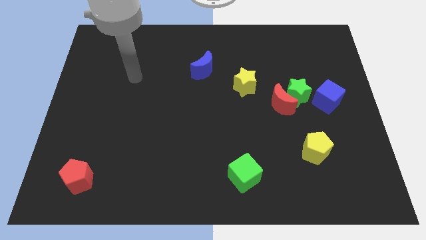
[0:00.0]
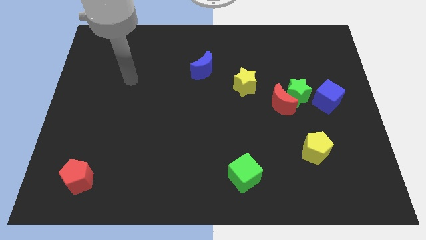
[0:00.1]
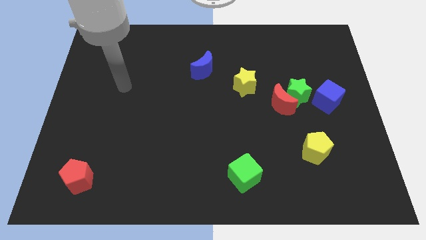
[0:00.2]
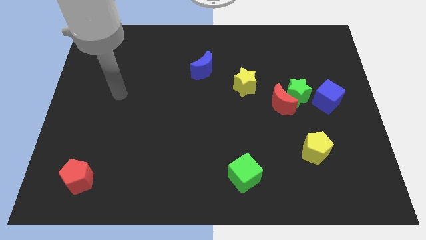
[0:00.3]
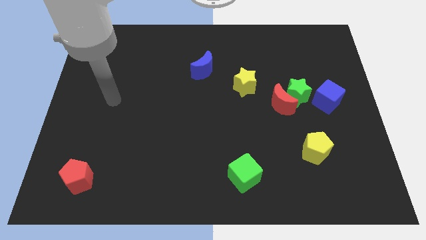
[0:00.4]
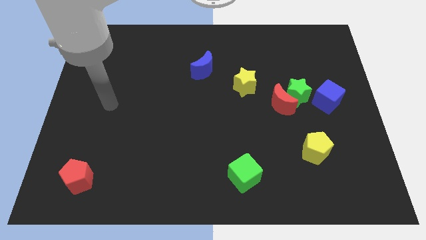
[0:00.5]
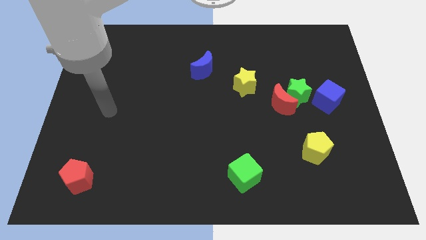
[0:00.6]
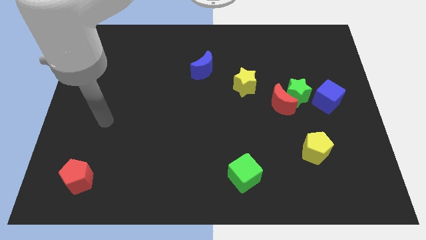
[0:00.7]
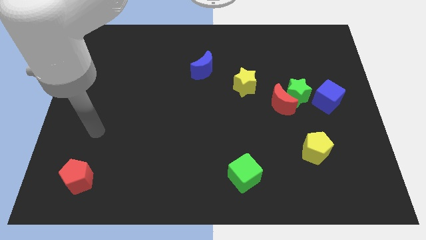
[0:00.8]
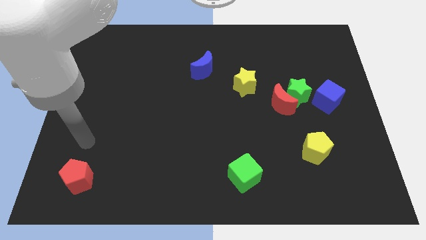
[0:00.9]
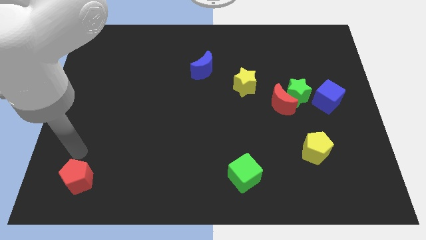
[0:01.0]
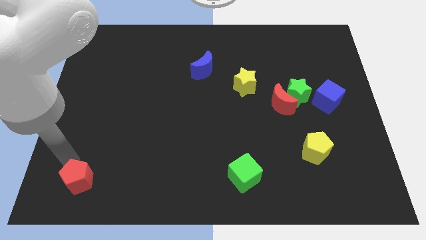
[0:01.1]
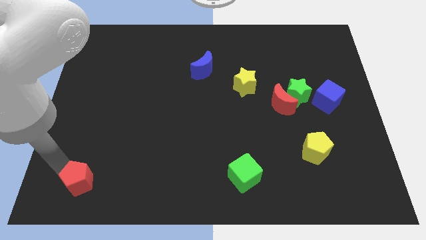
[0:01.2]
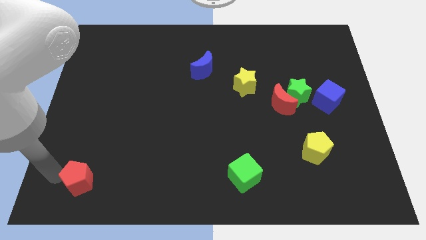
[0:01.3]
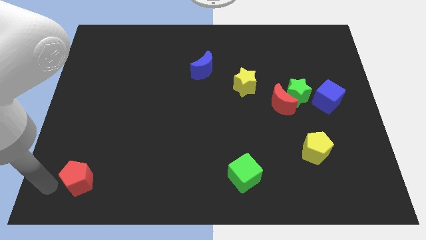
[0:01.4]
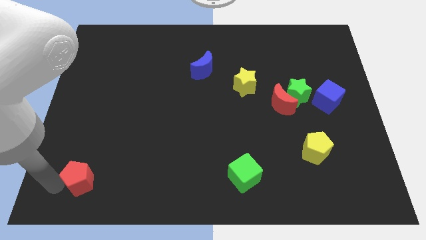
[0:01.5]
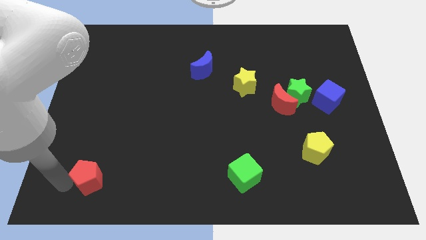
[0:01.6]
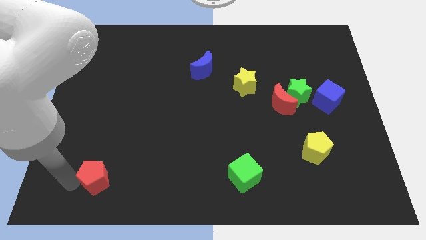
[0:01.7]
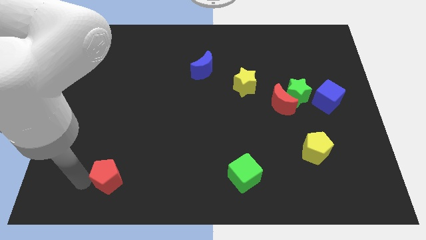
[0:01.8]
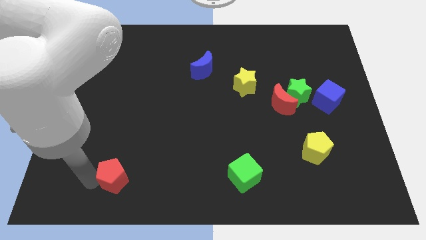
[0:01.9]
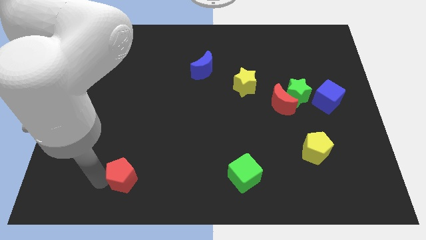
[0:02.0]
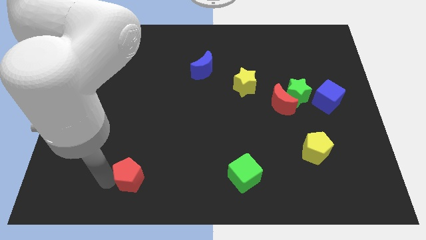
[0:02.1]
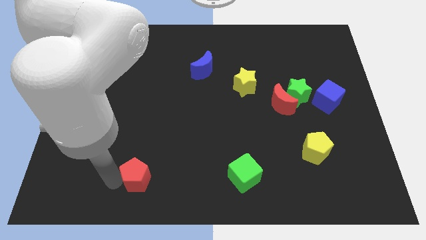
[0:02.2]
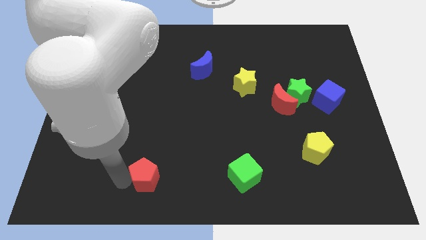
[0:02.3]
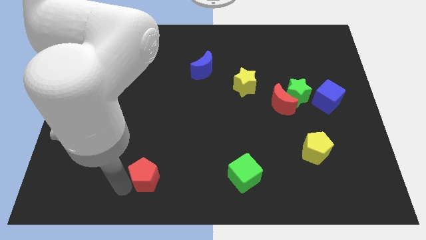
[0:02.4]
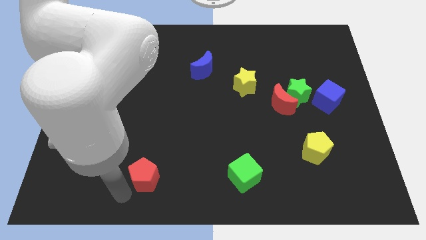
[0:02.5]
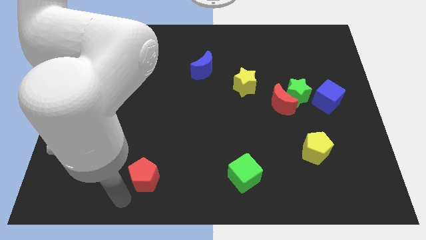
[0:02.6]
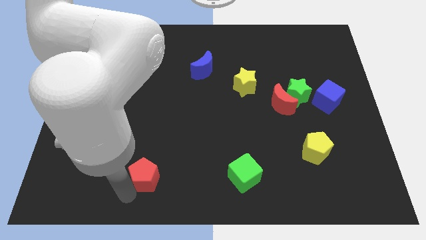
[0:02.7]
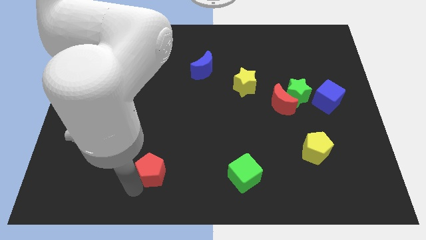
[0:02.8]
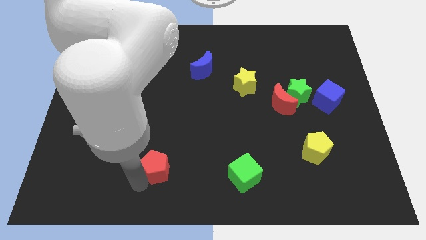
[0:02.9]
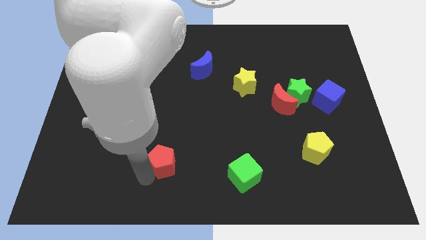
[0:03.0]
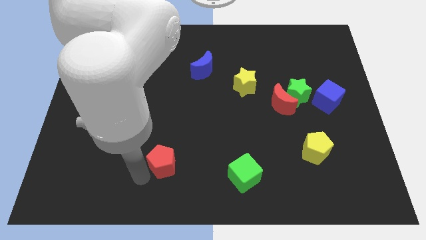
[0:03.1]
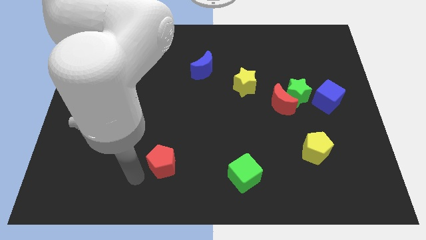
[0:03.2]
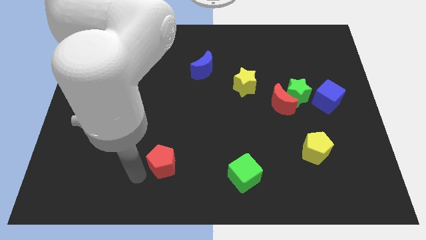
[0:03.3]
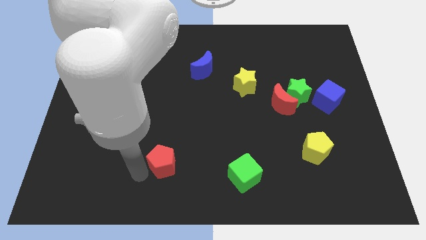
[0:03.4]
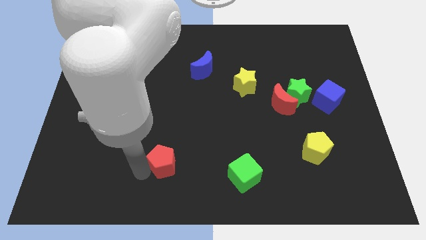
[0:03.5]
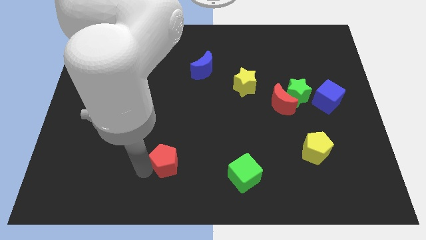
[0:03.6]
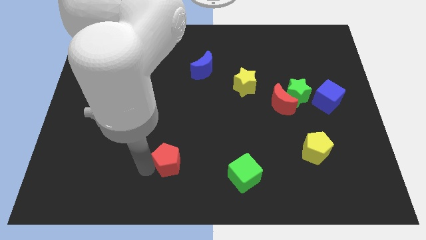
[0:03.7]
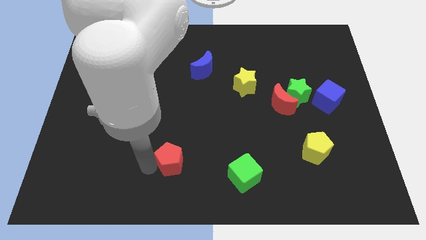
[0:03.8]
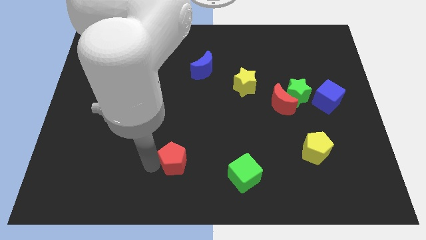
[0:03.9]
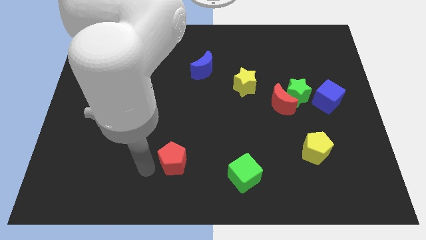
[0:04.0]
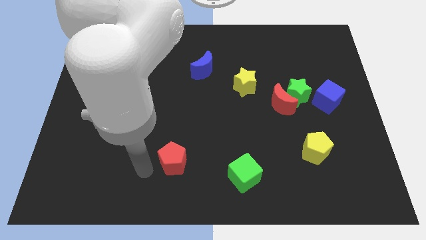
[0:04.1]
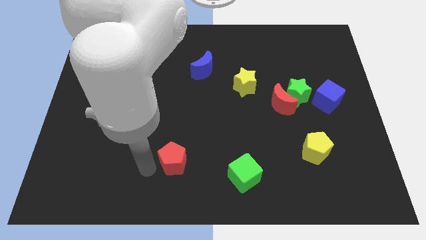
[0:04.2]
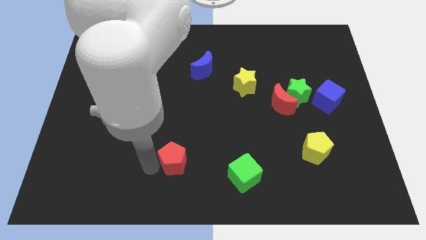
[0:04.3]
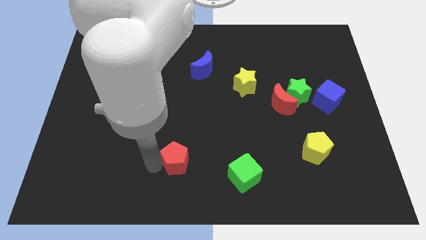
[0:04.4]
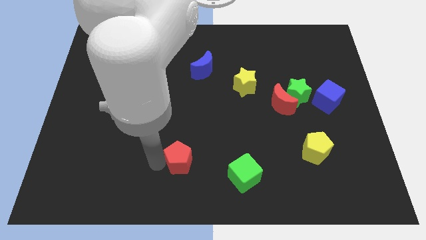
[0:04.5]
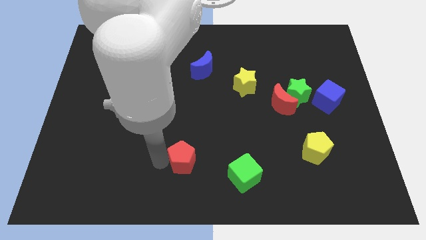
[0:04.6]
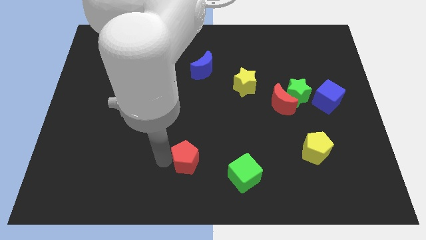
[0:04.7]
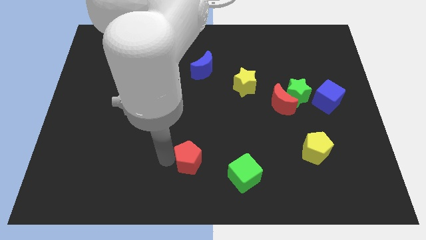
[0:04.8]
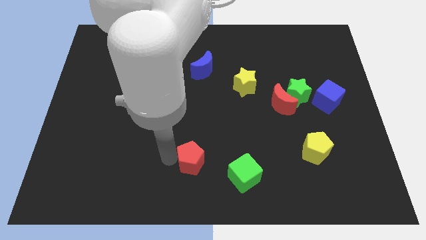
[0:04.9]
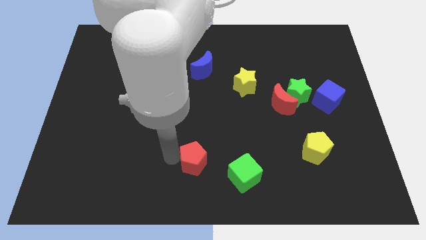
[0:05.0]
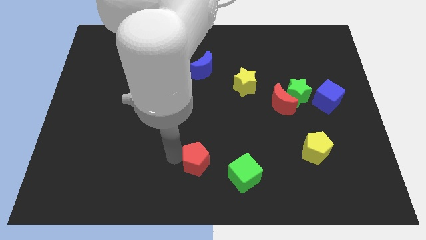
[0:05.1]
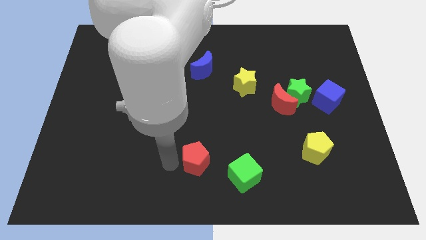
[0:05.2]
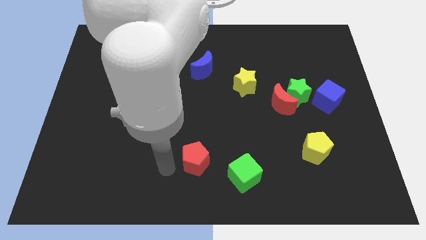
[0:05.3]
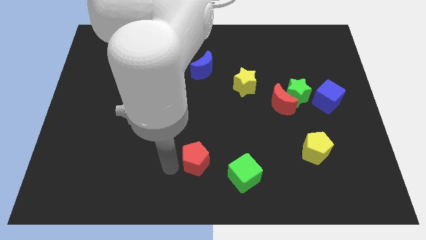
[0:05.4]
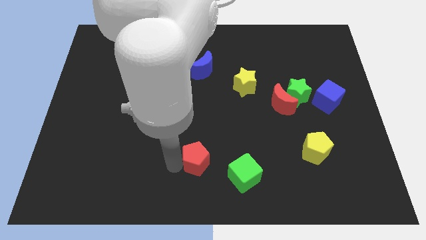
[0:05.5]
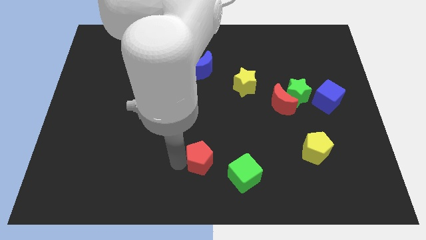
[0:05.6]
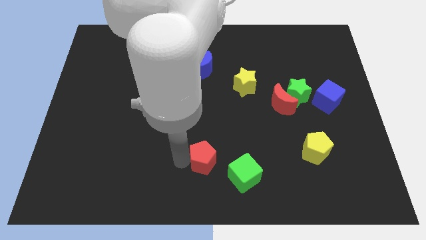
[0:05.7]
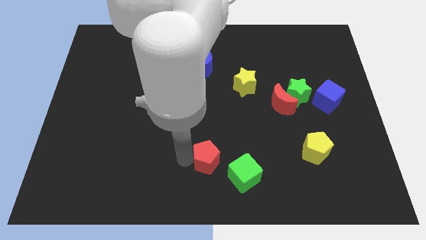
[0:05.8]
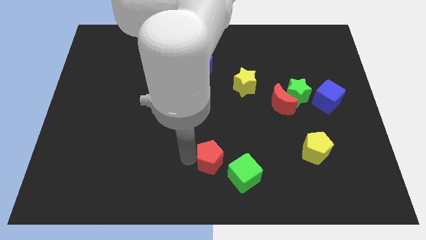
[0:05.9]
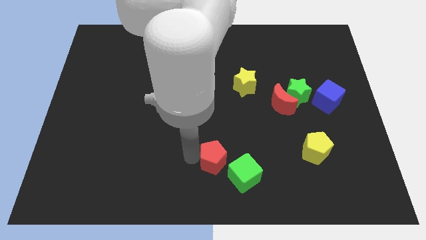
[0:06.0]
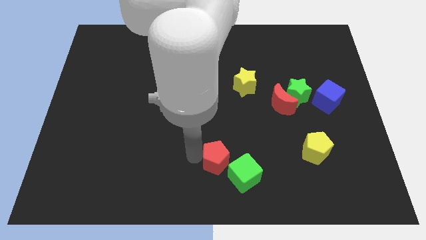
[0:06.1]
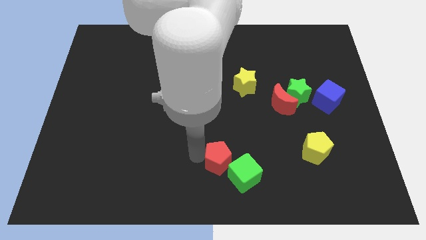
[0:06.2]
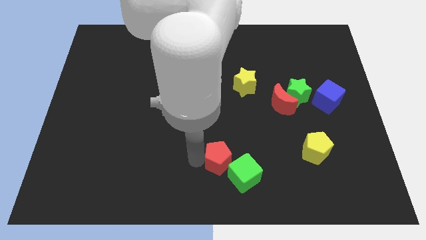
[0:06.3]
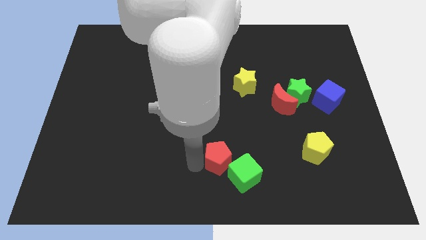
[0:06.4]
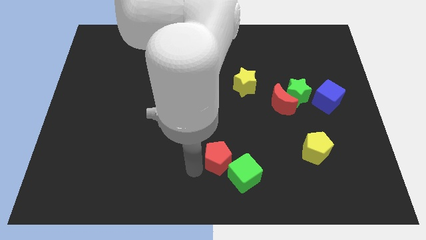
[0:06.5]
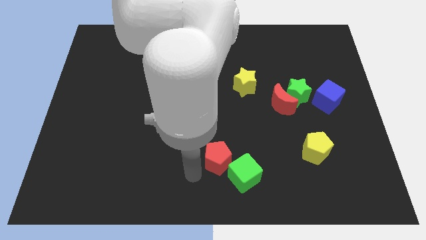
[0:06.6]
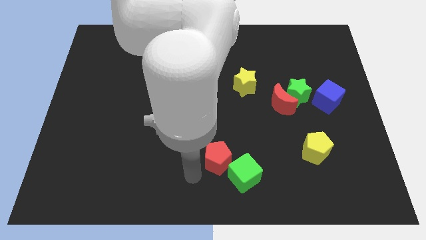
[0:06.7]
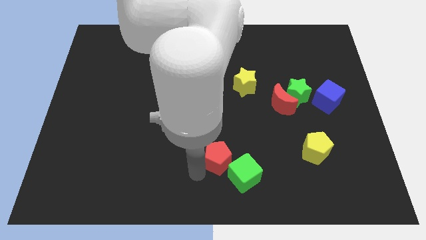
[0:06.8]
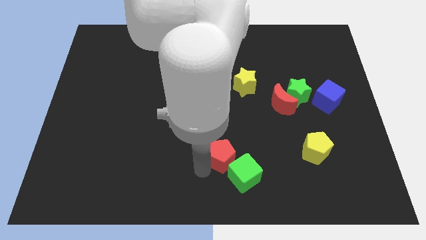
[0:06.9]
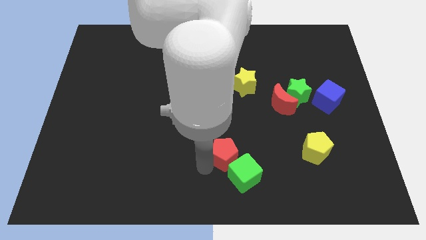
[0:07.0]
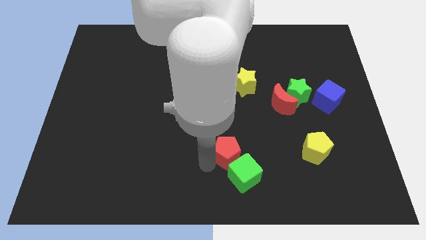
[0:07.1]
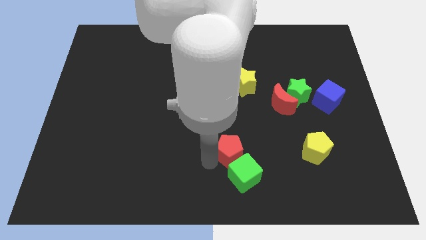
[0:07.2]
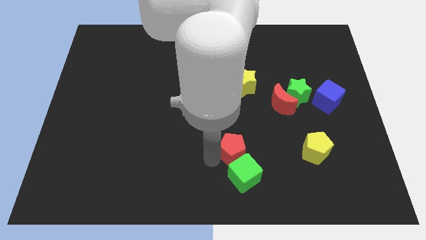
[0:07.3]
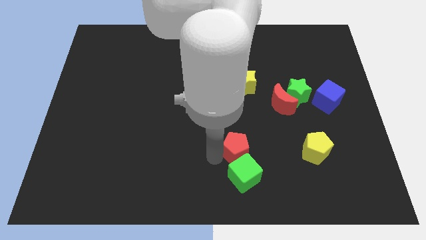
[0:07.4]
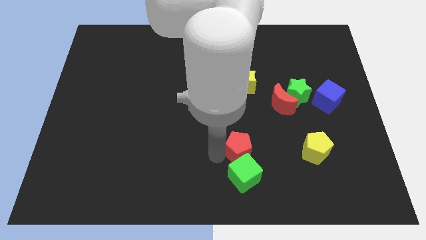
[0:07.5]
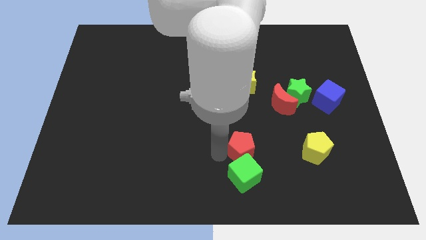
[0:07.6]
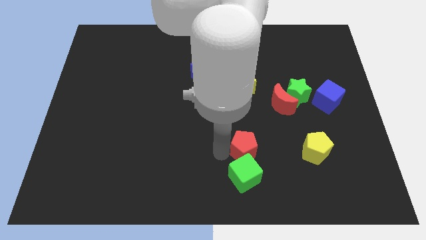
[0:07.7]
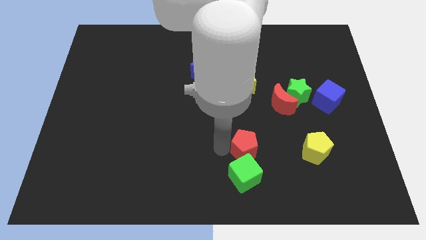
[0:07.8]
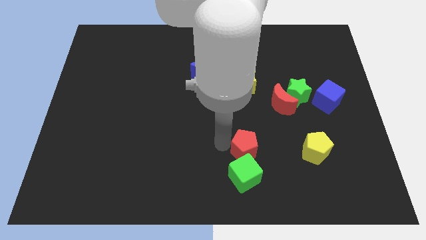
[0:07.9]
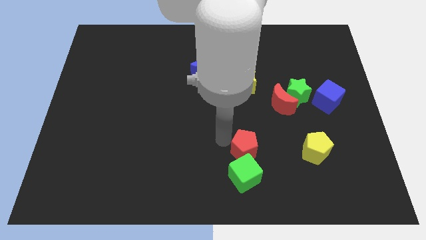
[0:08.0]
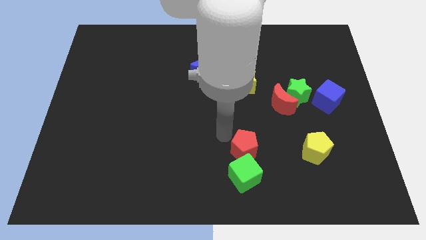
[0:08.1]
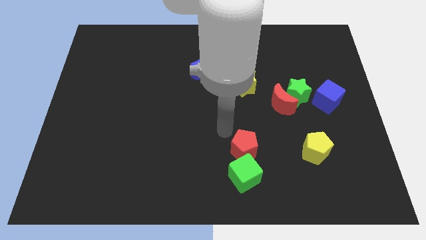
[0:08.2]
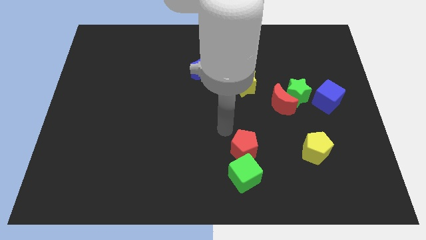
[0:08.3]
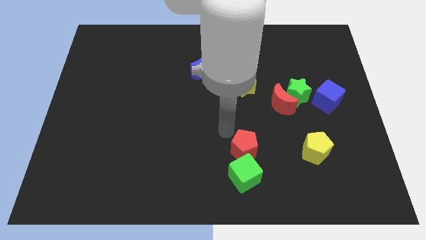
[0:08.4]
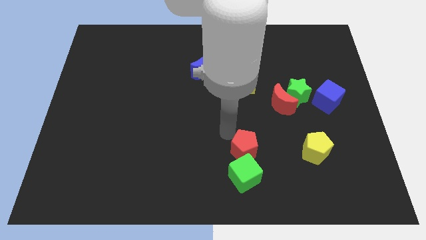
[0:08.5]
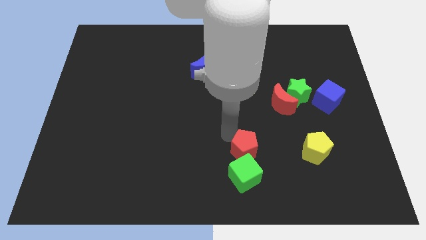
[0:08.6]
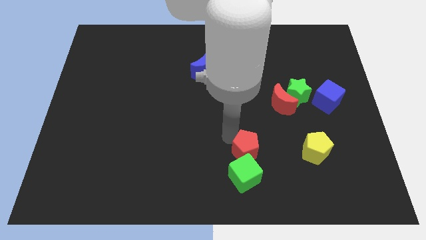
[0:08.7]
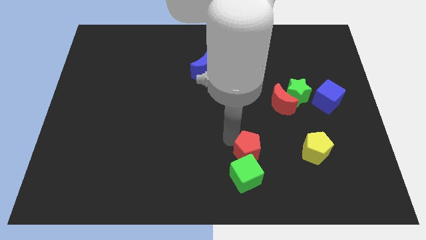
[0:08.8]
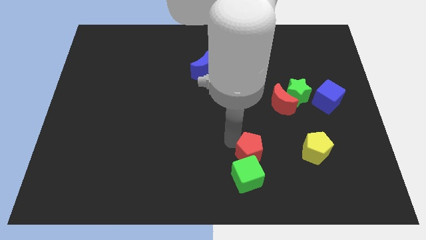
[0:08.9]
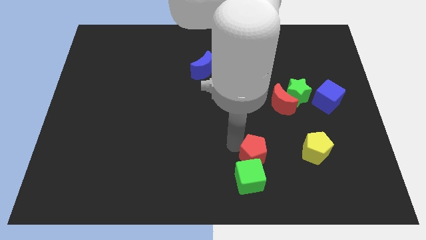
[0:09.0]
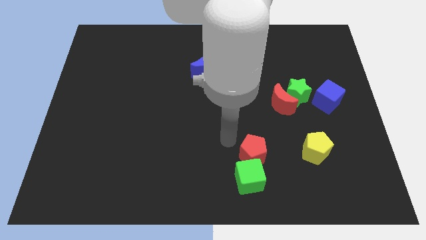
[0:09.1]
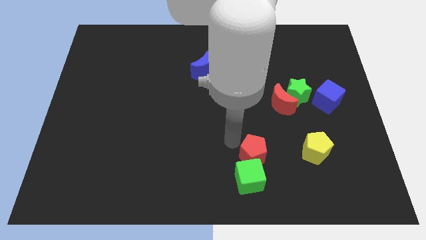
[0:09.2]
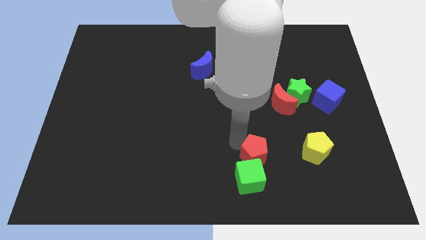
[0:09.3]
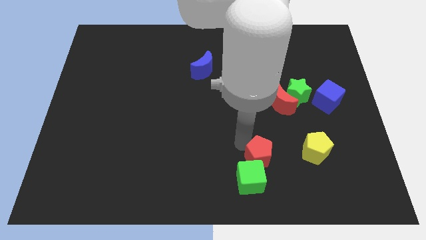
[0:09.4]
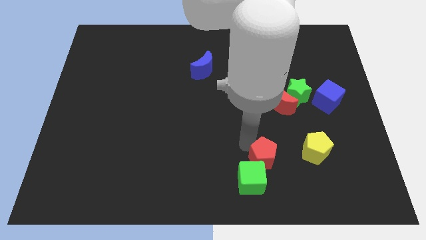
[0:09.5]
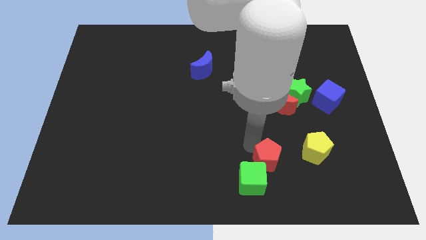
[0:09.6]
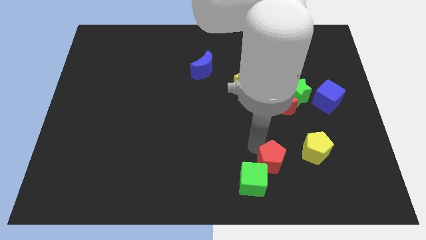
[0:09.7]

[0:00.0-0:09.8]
put the red pentagon to the right of the green cube
